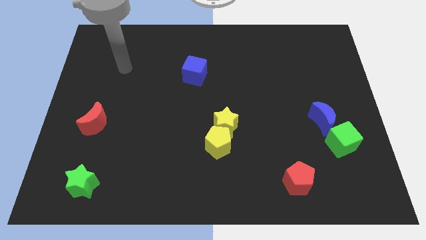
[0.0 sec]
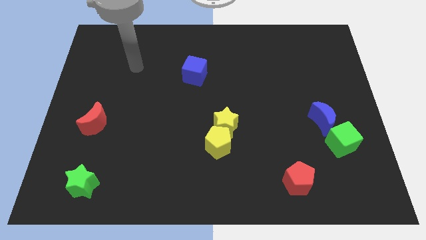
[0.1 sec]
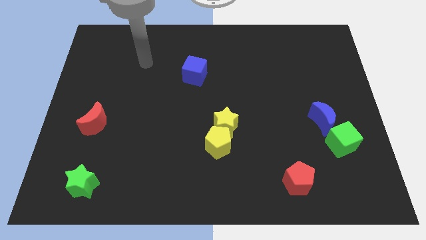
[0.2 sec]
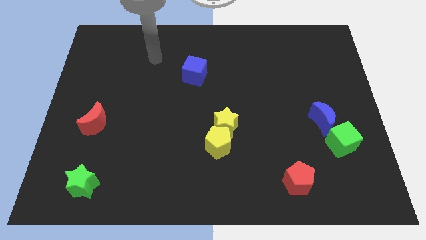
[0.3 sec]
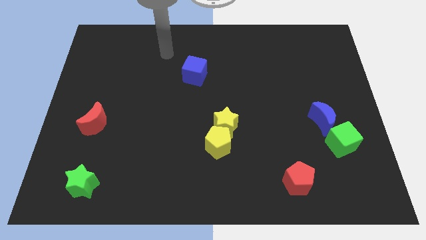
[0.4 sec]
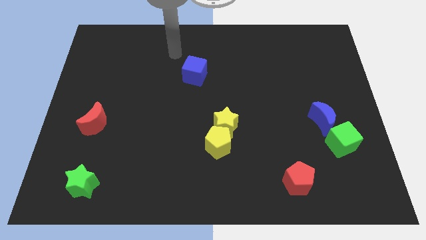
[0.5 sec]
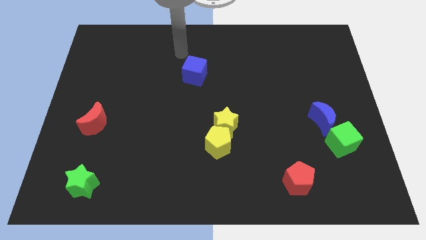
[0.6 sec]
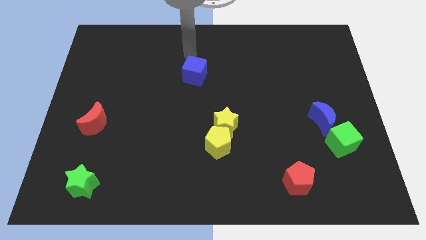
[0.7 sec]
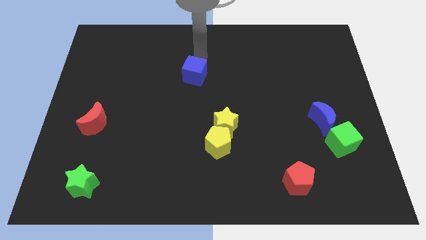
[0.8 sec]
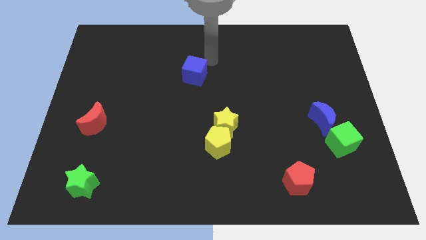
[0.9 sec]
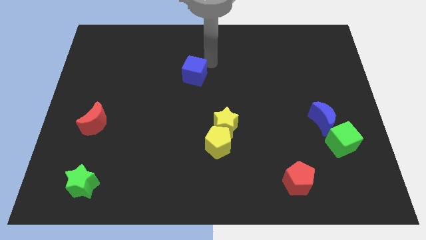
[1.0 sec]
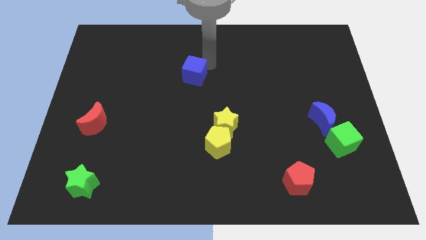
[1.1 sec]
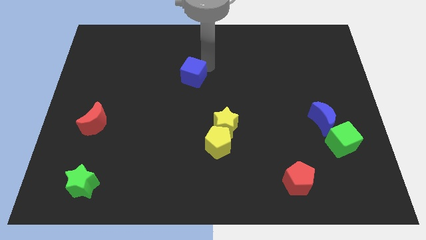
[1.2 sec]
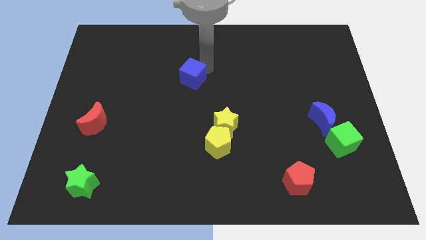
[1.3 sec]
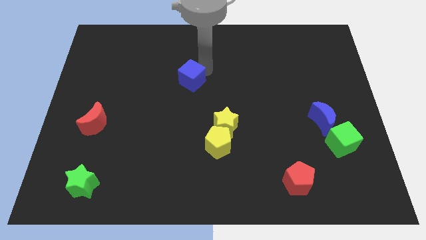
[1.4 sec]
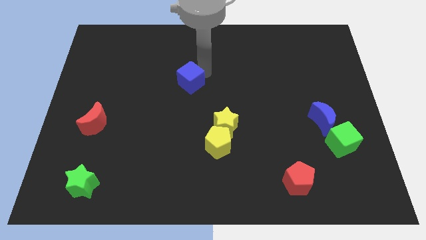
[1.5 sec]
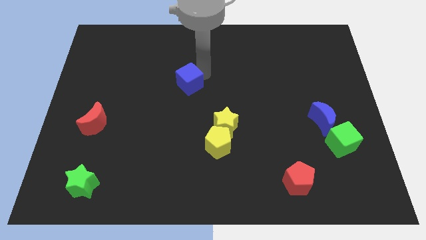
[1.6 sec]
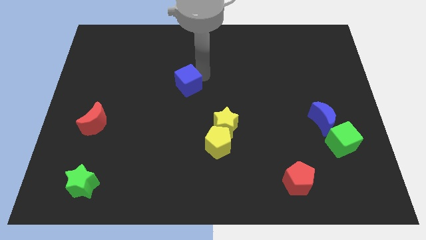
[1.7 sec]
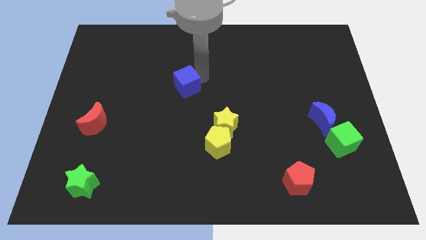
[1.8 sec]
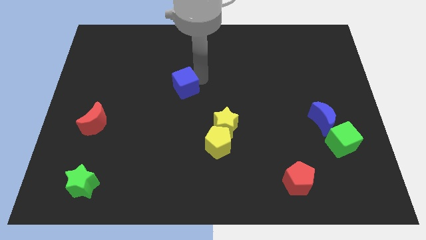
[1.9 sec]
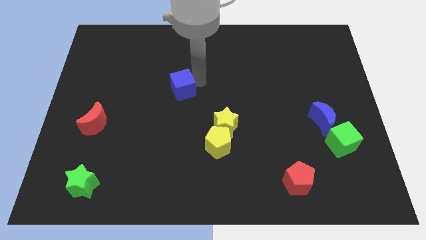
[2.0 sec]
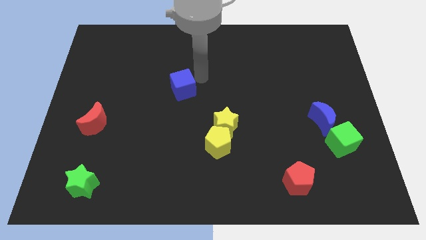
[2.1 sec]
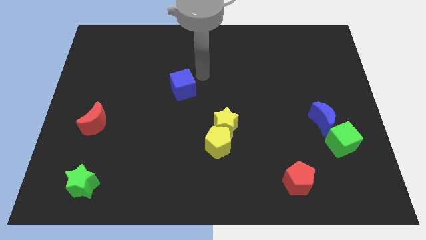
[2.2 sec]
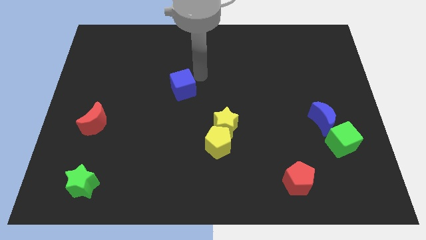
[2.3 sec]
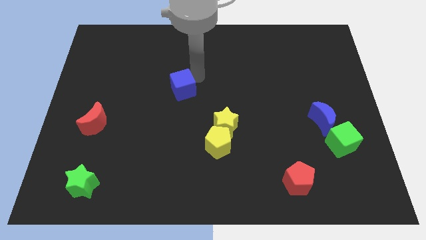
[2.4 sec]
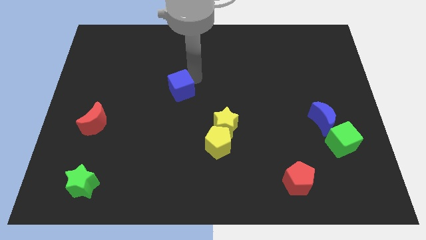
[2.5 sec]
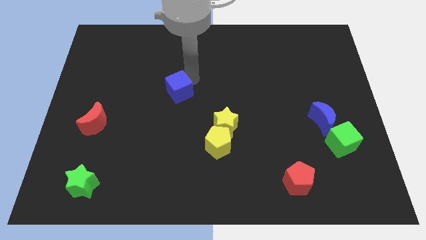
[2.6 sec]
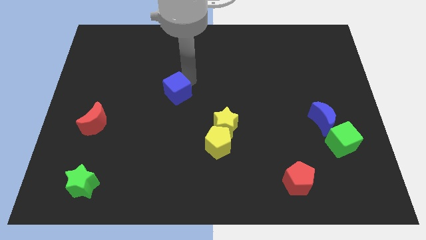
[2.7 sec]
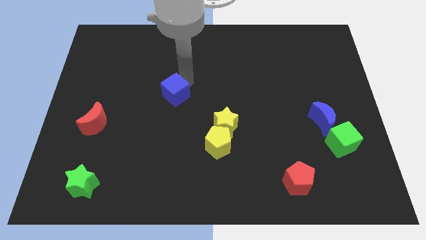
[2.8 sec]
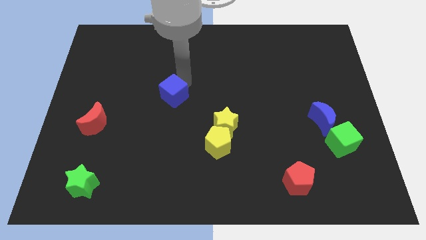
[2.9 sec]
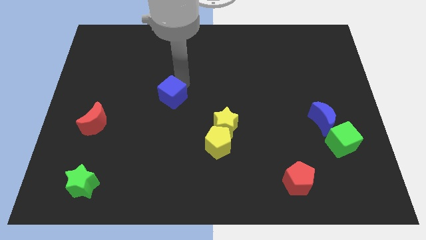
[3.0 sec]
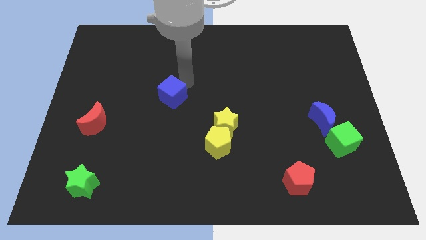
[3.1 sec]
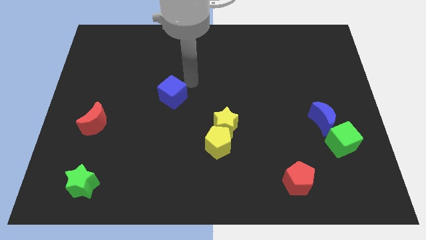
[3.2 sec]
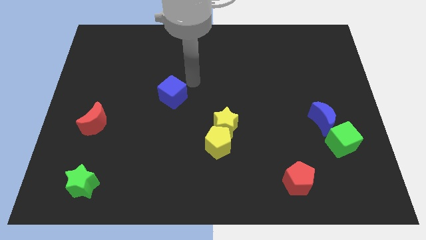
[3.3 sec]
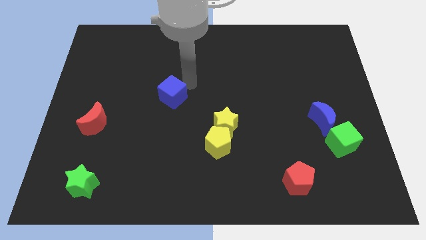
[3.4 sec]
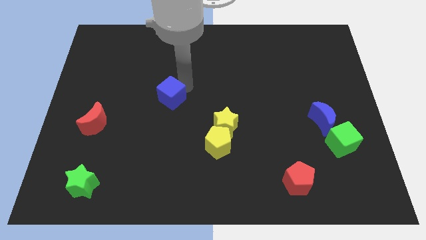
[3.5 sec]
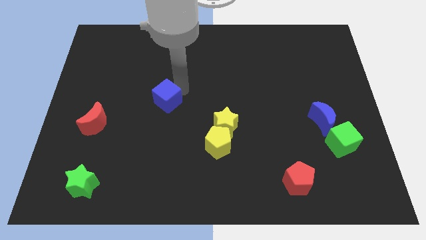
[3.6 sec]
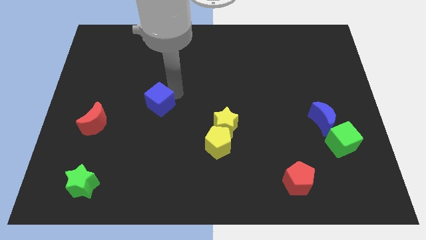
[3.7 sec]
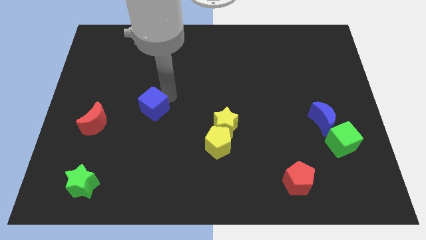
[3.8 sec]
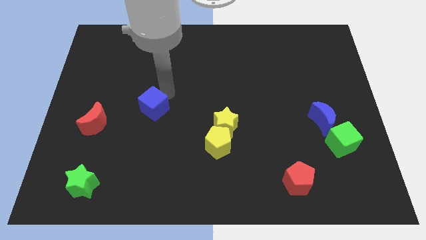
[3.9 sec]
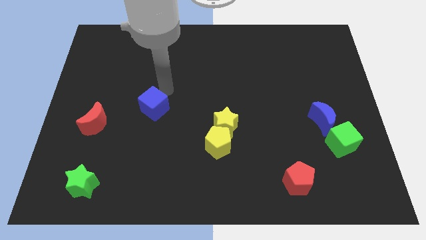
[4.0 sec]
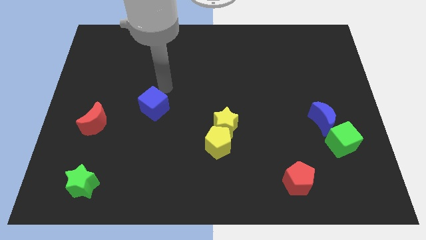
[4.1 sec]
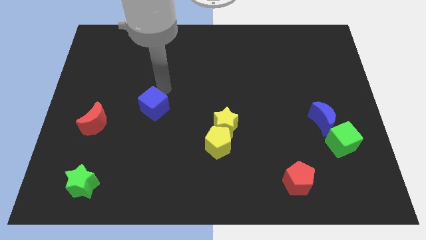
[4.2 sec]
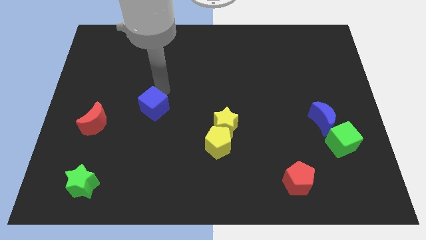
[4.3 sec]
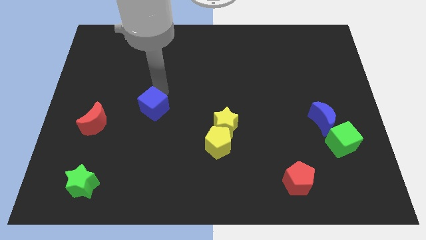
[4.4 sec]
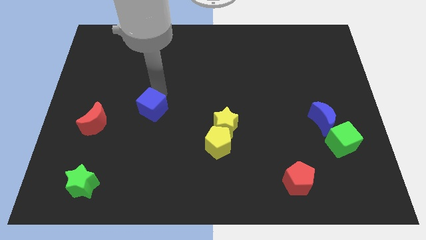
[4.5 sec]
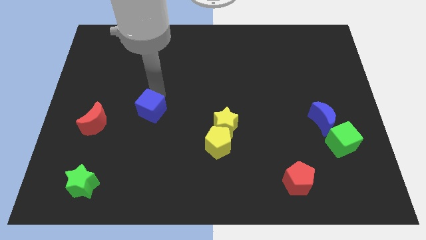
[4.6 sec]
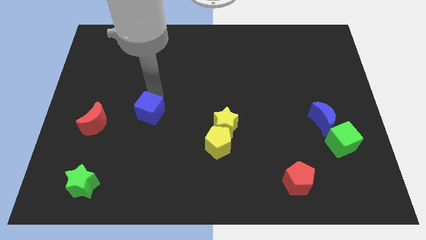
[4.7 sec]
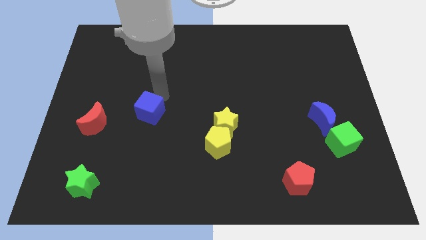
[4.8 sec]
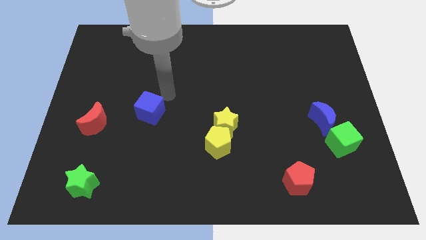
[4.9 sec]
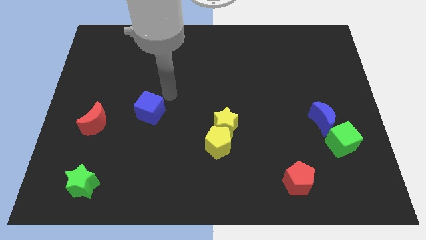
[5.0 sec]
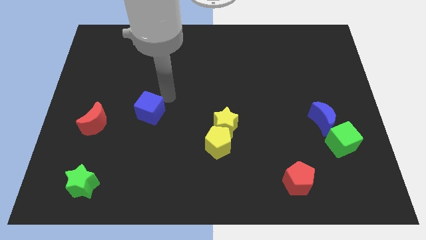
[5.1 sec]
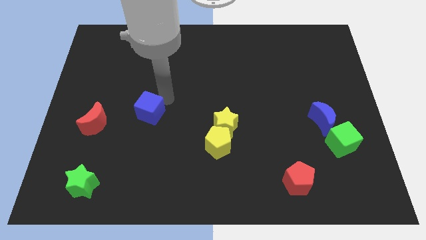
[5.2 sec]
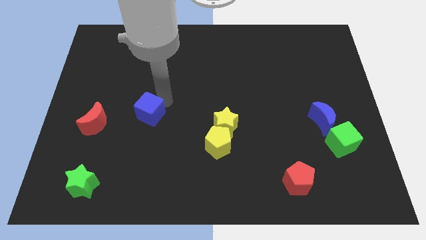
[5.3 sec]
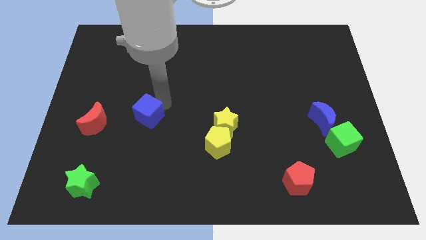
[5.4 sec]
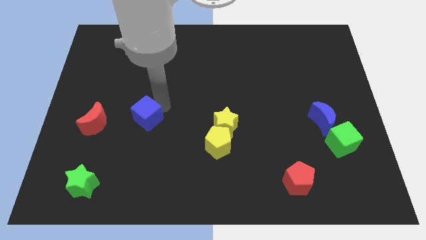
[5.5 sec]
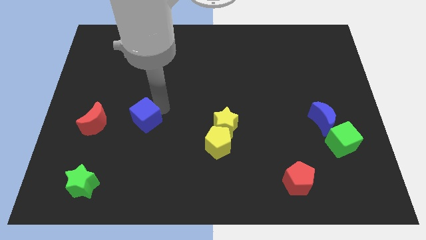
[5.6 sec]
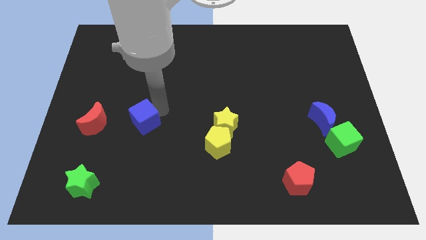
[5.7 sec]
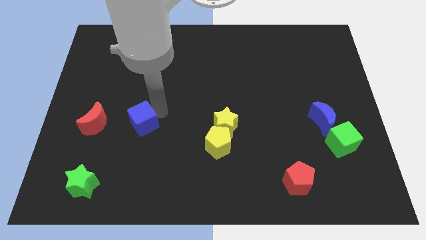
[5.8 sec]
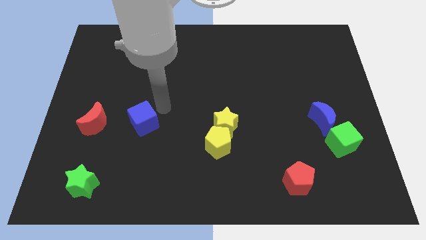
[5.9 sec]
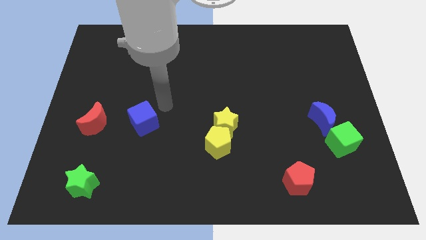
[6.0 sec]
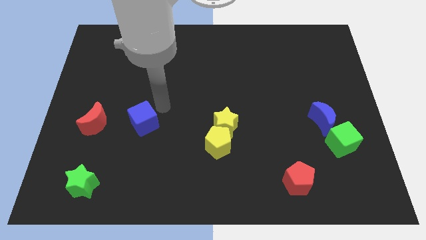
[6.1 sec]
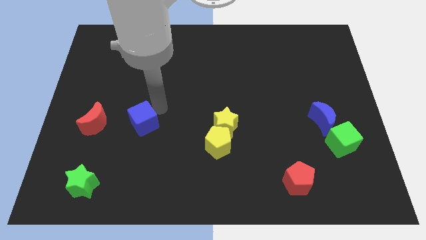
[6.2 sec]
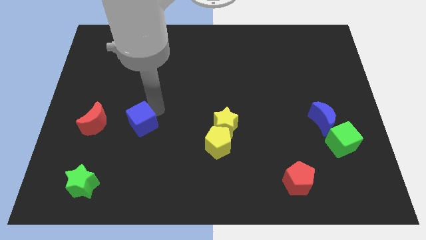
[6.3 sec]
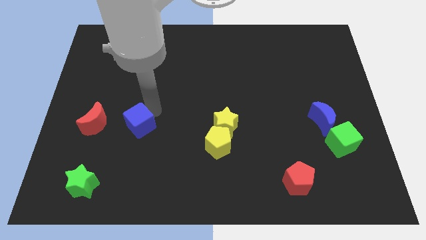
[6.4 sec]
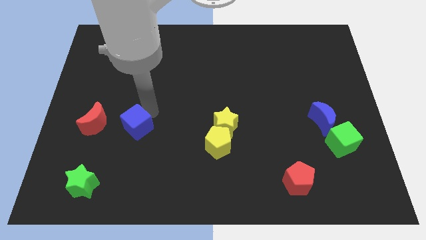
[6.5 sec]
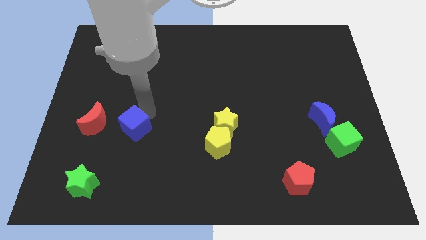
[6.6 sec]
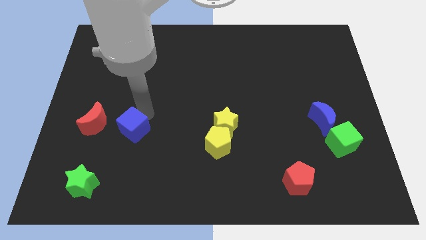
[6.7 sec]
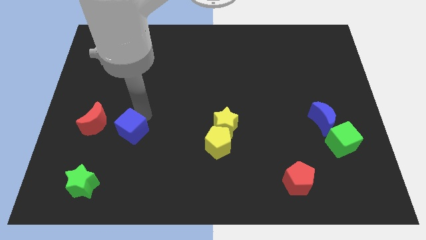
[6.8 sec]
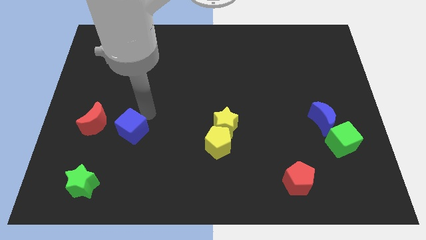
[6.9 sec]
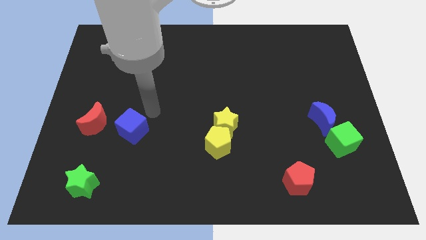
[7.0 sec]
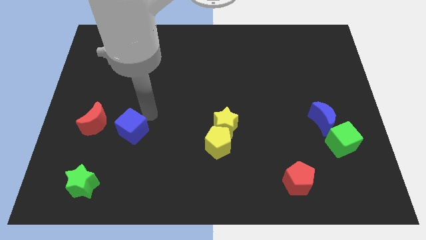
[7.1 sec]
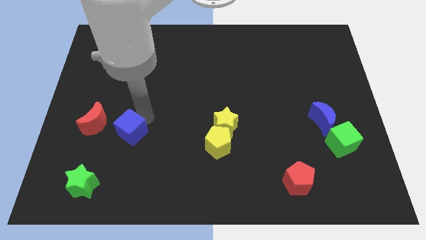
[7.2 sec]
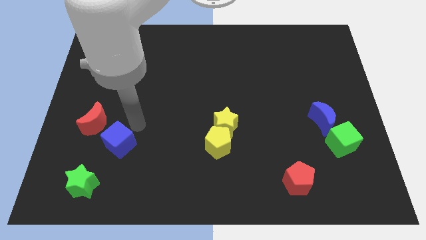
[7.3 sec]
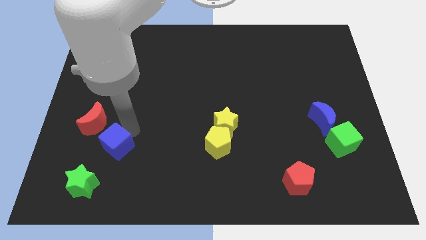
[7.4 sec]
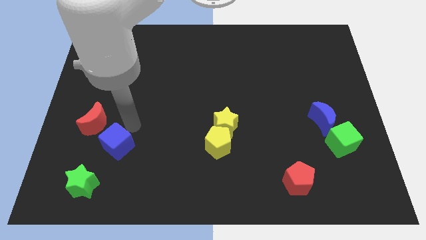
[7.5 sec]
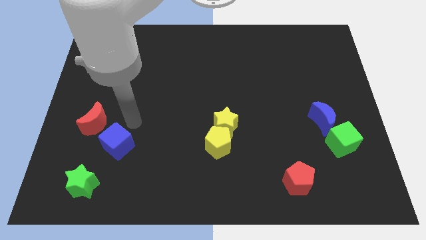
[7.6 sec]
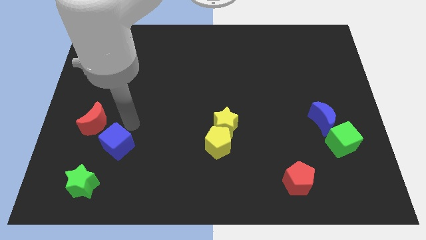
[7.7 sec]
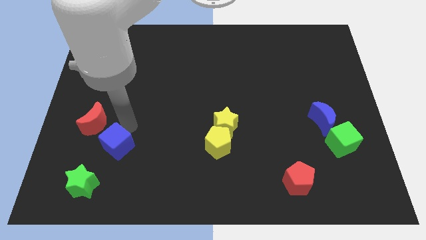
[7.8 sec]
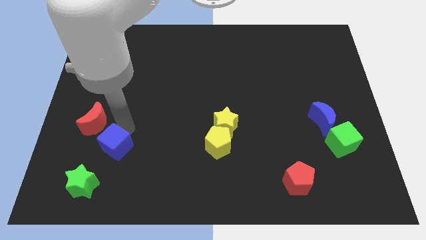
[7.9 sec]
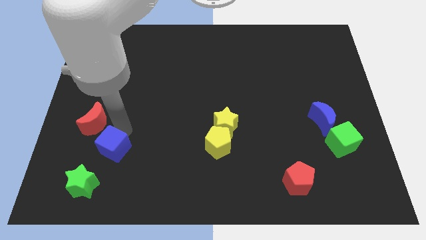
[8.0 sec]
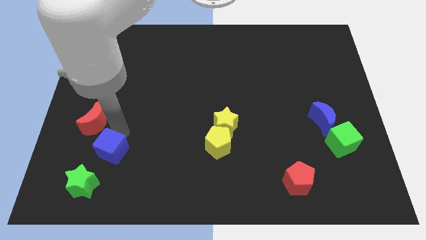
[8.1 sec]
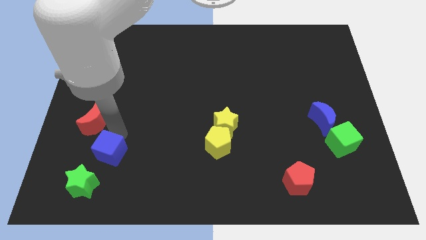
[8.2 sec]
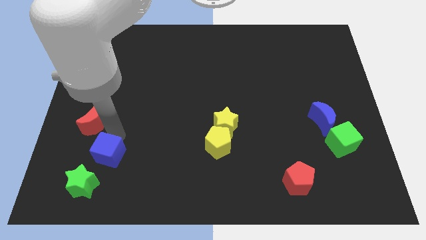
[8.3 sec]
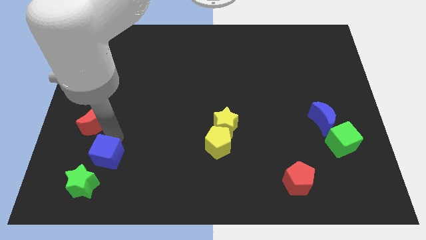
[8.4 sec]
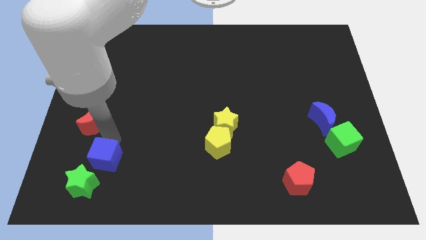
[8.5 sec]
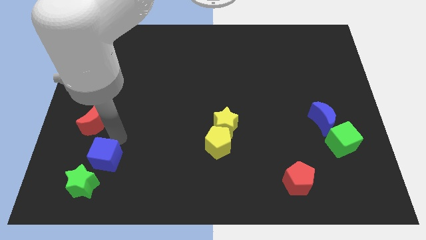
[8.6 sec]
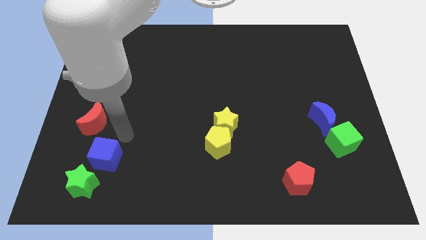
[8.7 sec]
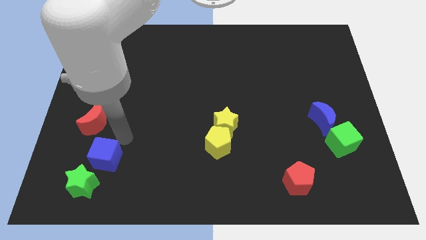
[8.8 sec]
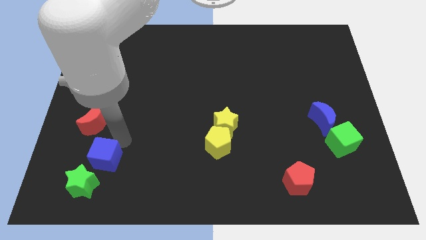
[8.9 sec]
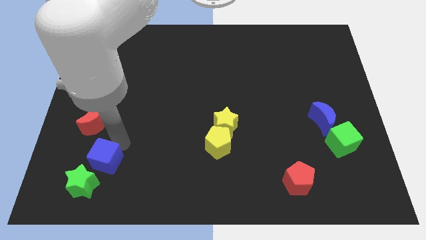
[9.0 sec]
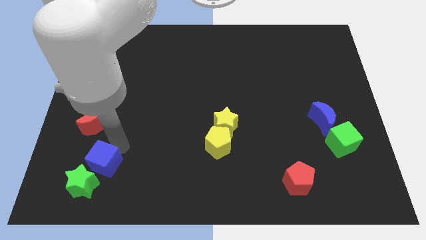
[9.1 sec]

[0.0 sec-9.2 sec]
move the blue cube next to the green star
